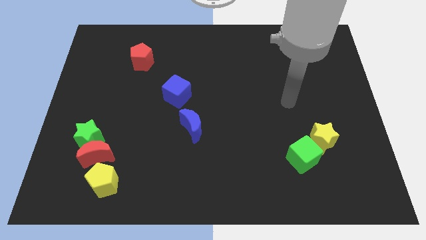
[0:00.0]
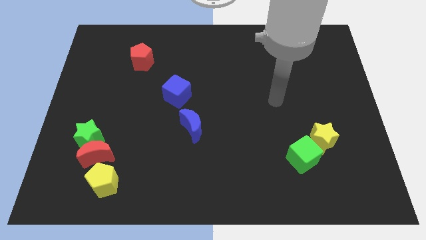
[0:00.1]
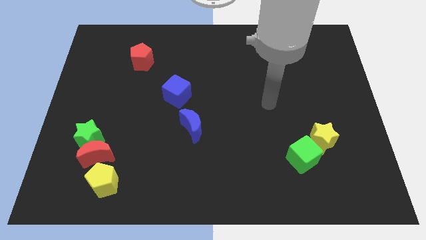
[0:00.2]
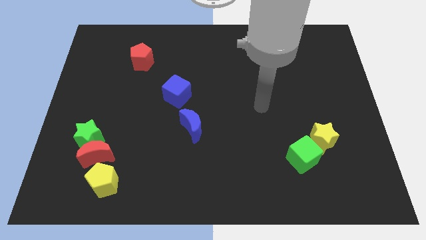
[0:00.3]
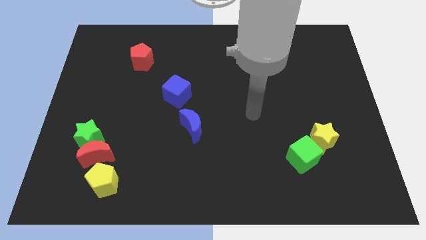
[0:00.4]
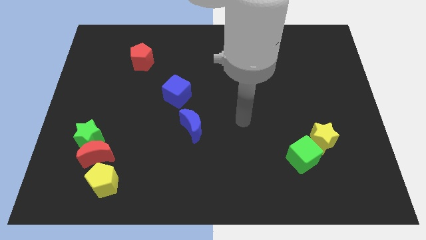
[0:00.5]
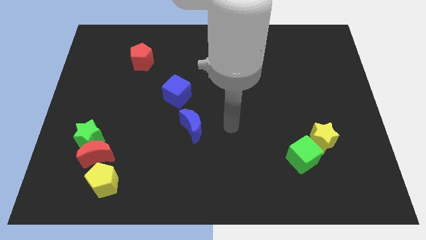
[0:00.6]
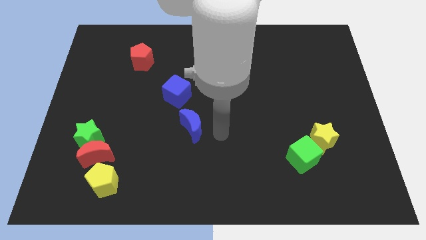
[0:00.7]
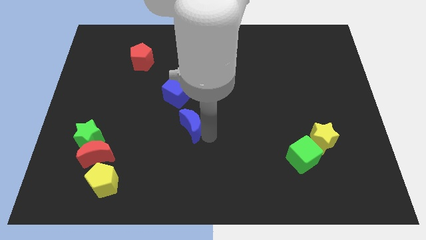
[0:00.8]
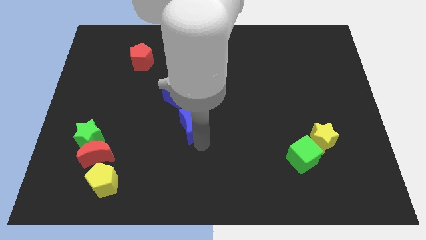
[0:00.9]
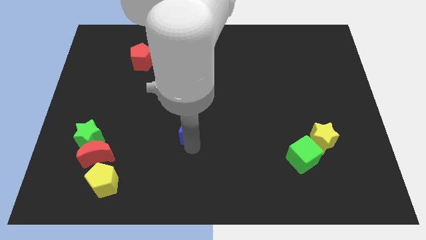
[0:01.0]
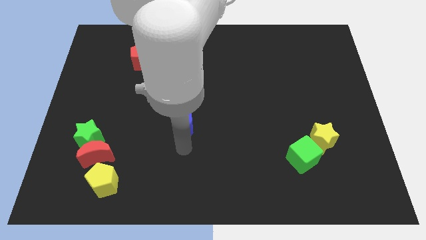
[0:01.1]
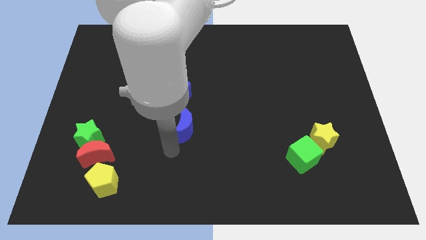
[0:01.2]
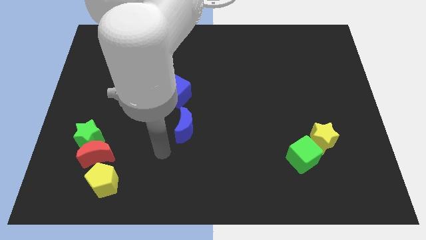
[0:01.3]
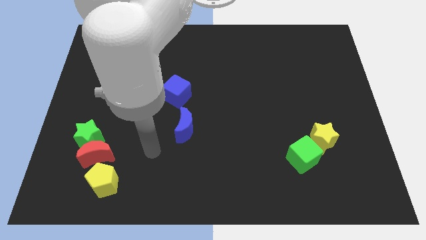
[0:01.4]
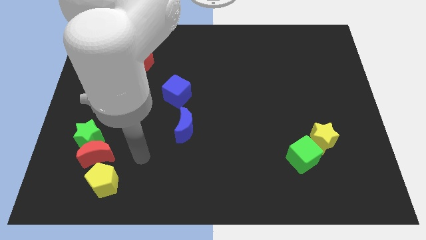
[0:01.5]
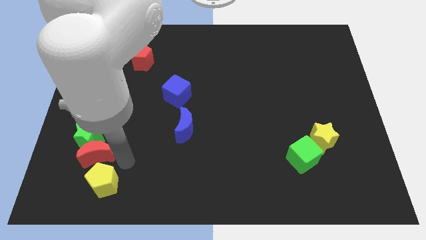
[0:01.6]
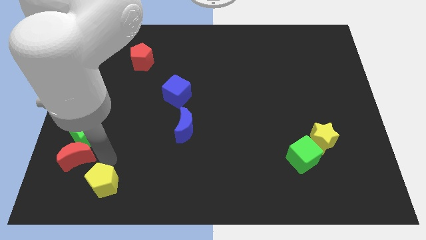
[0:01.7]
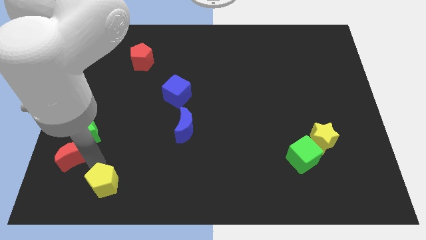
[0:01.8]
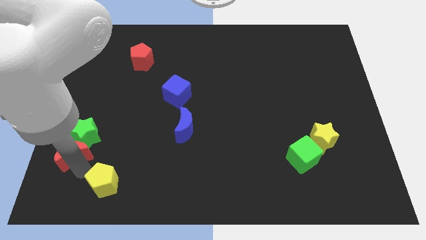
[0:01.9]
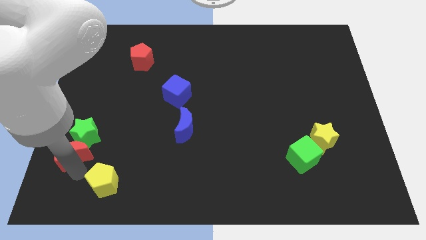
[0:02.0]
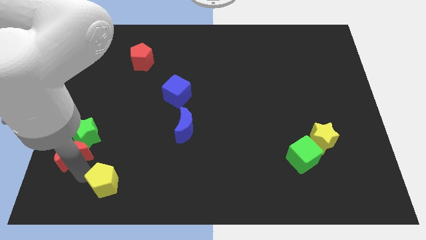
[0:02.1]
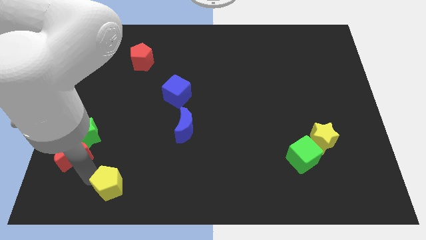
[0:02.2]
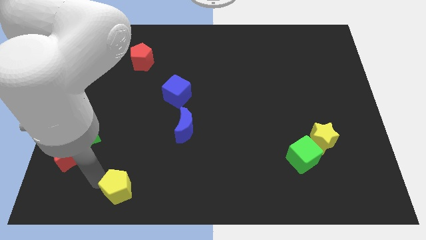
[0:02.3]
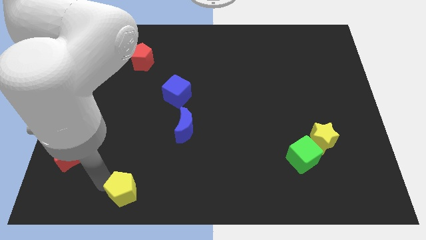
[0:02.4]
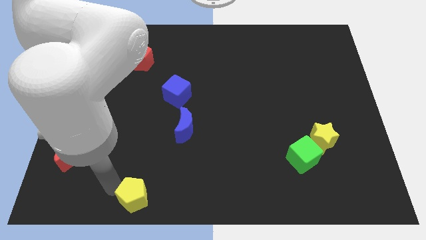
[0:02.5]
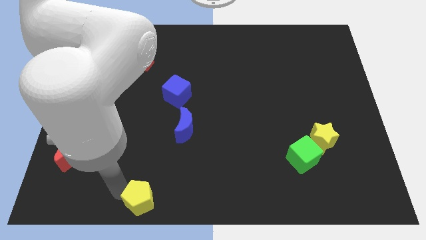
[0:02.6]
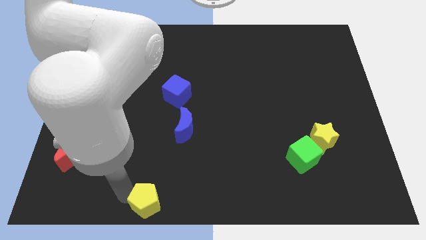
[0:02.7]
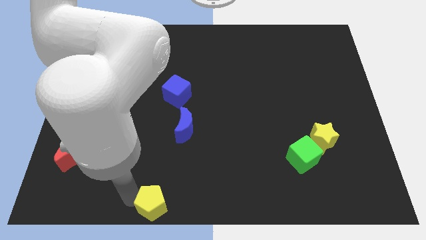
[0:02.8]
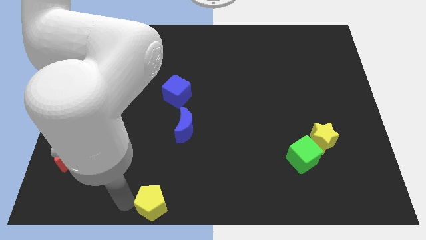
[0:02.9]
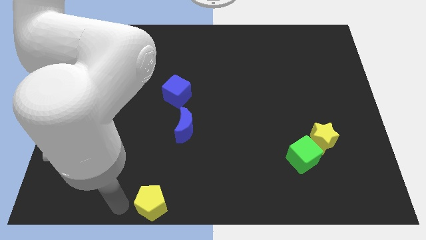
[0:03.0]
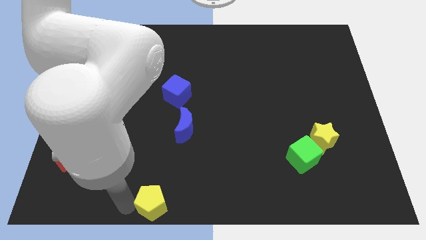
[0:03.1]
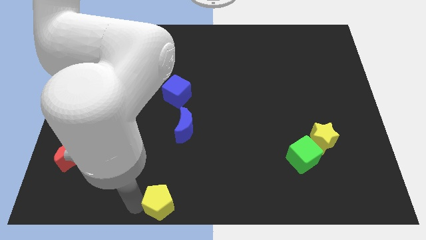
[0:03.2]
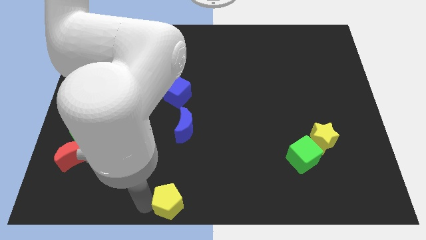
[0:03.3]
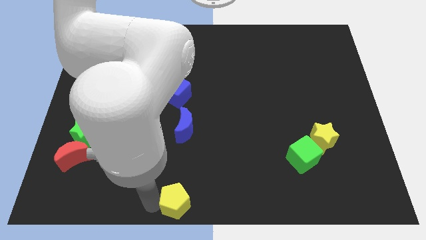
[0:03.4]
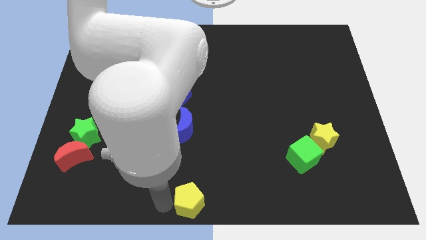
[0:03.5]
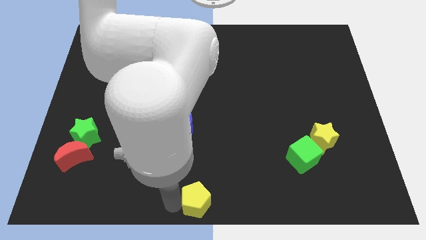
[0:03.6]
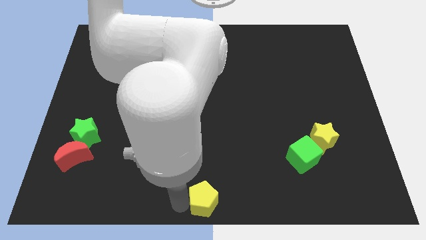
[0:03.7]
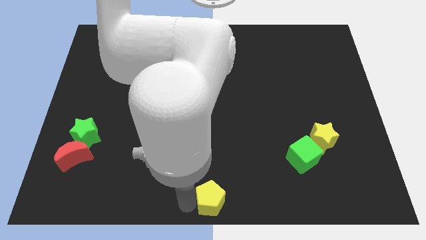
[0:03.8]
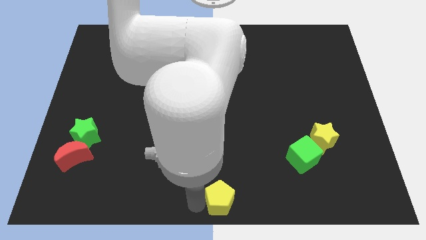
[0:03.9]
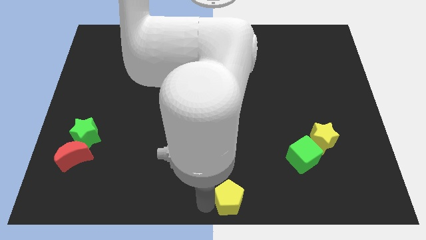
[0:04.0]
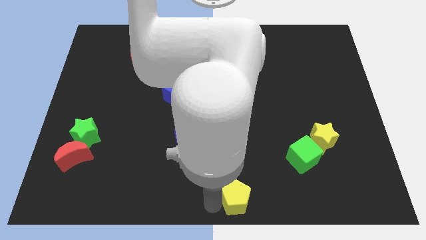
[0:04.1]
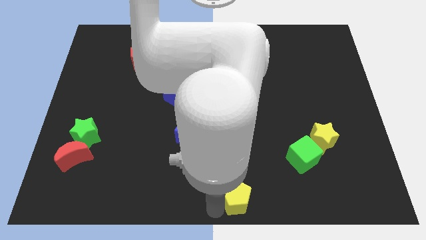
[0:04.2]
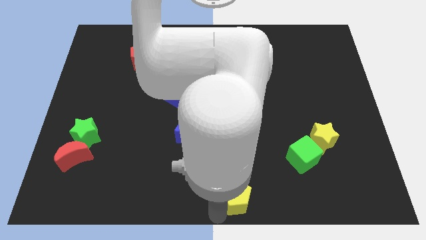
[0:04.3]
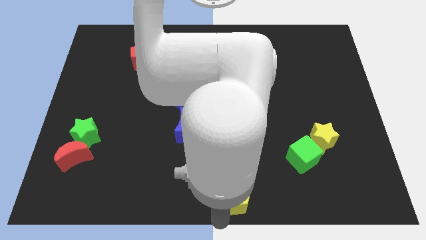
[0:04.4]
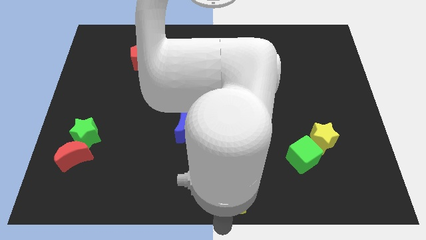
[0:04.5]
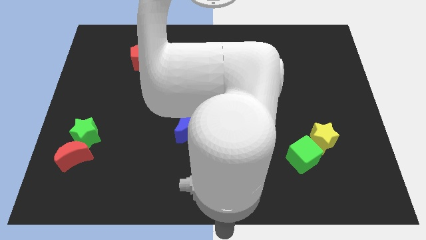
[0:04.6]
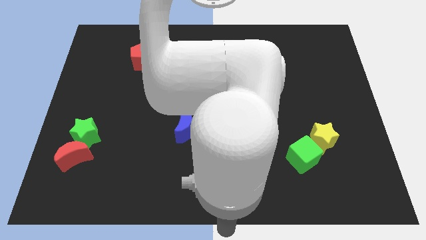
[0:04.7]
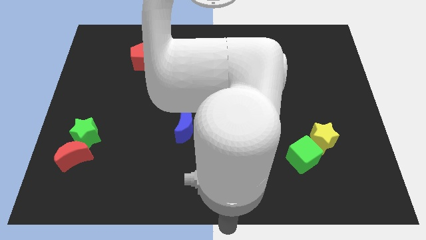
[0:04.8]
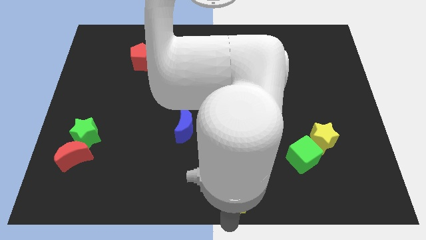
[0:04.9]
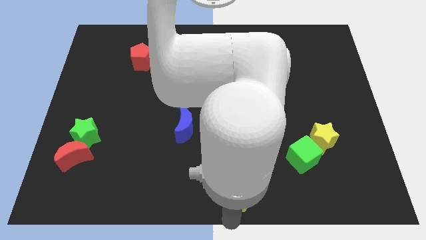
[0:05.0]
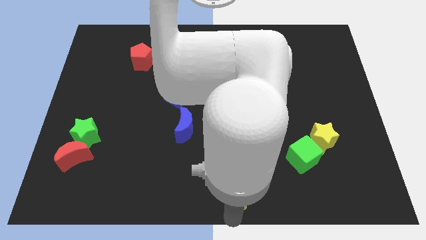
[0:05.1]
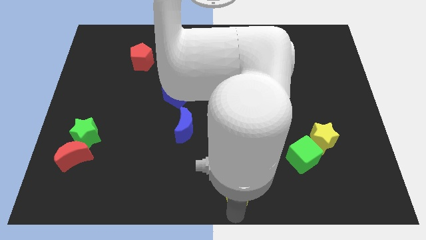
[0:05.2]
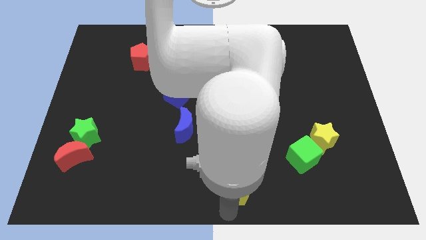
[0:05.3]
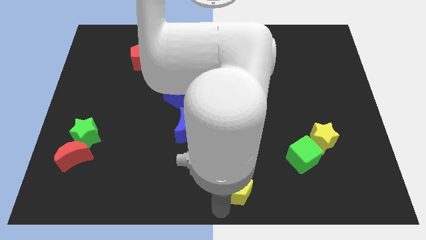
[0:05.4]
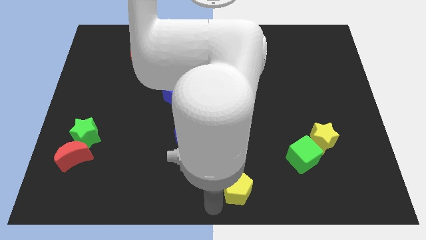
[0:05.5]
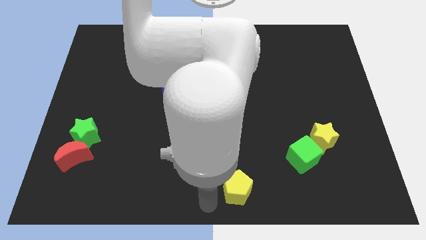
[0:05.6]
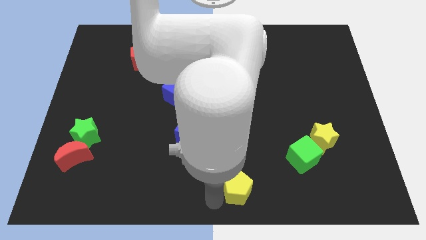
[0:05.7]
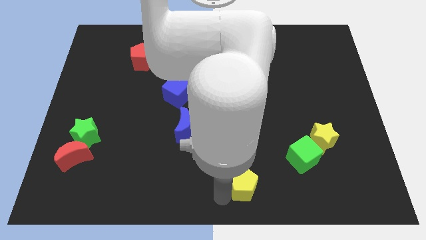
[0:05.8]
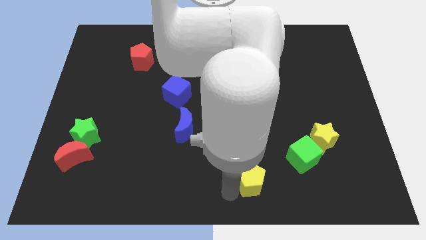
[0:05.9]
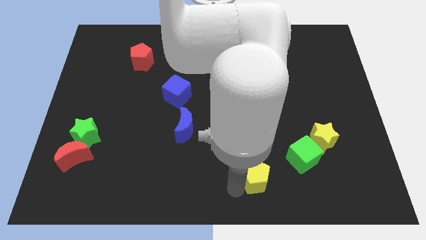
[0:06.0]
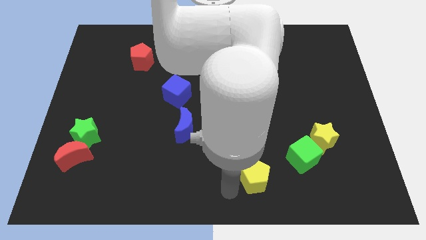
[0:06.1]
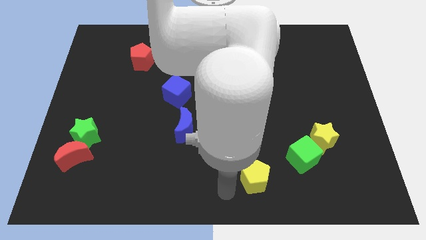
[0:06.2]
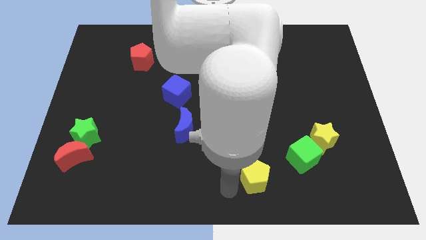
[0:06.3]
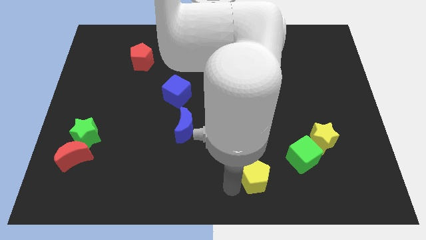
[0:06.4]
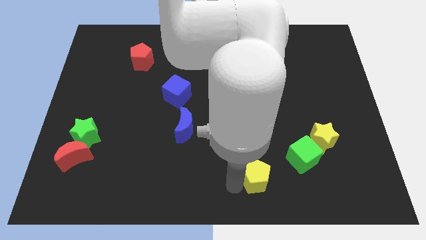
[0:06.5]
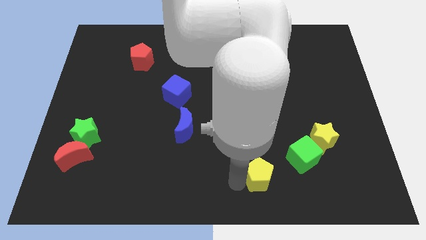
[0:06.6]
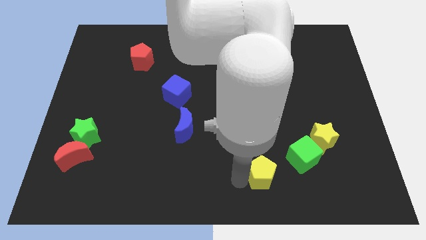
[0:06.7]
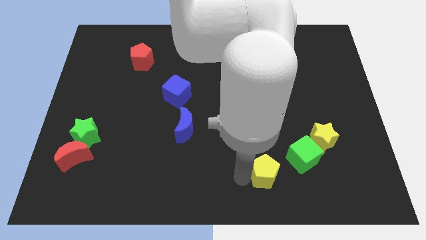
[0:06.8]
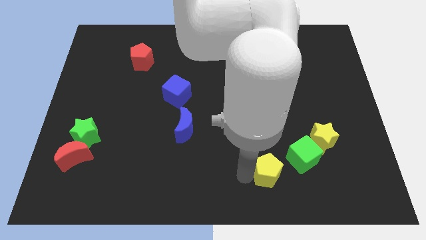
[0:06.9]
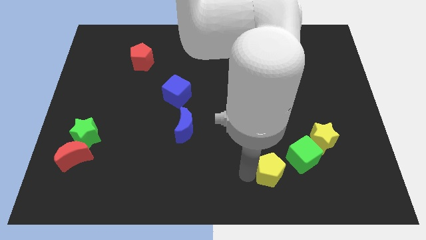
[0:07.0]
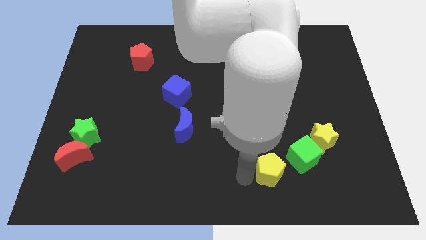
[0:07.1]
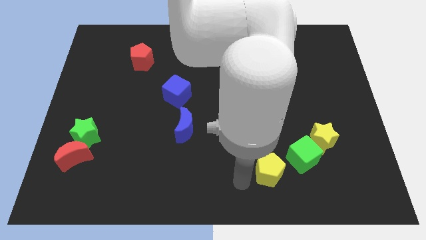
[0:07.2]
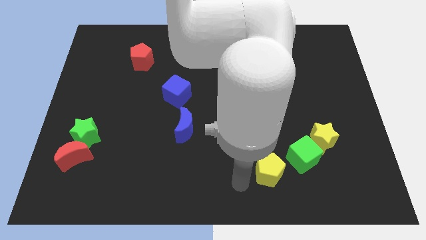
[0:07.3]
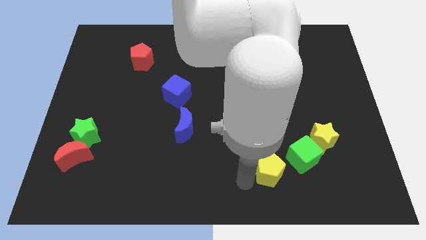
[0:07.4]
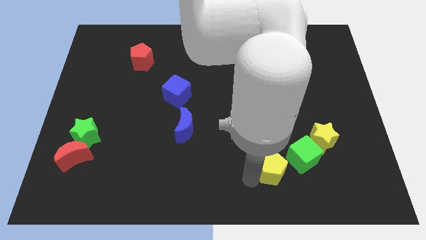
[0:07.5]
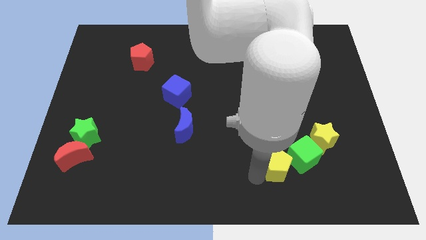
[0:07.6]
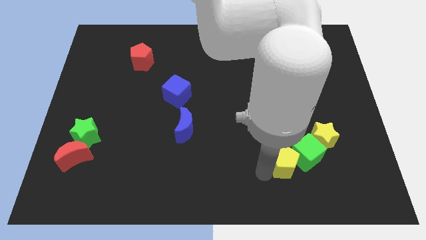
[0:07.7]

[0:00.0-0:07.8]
put the yellow pentagon next to the green cube
